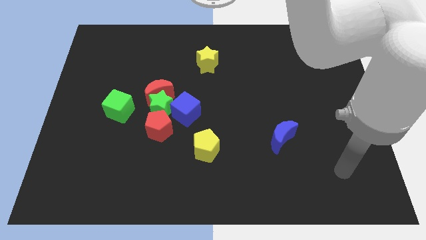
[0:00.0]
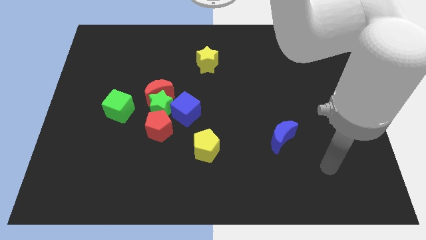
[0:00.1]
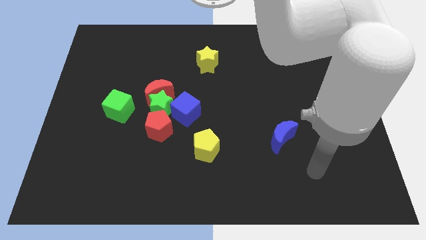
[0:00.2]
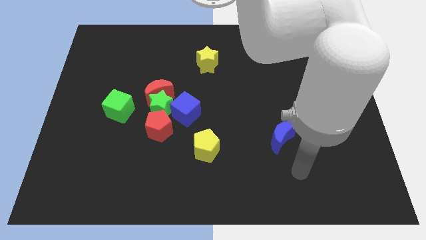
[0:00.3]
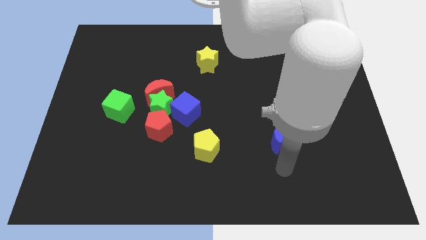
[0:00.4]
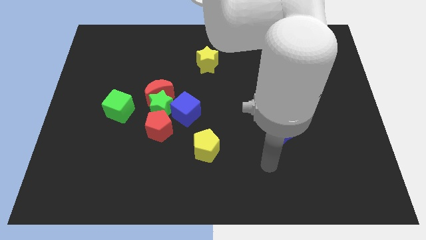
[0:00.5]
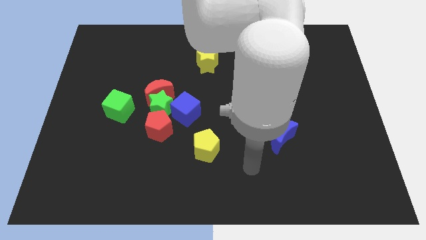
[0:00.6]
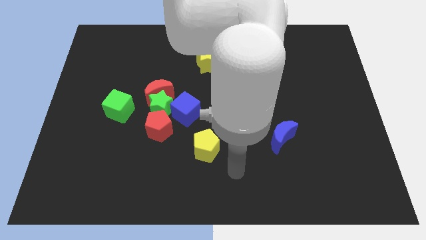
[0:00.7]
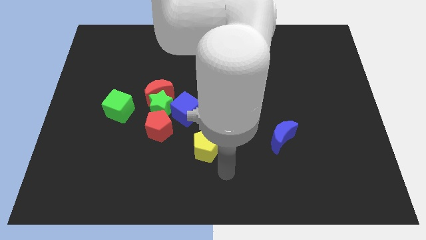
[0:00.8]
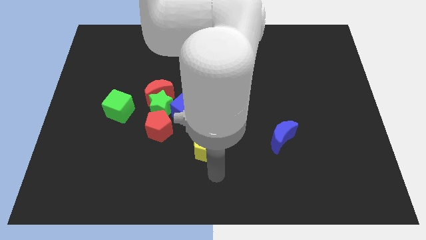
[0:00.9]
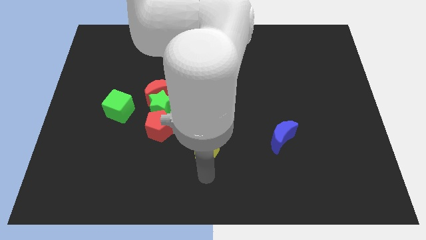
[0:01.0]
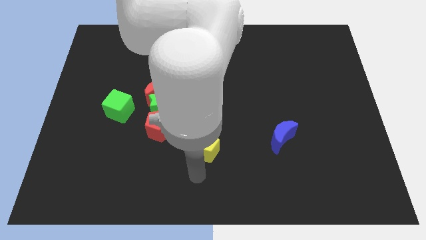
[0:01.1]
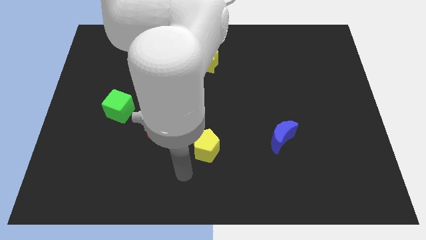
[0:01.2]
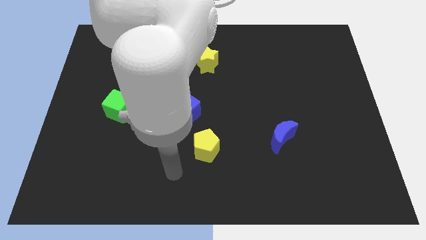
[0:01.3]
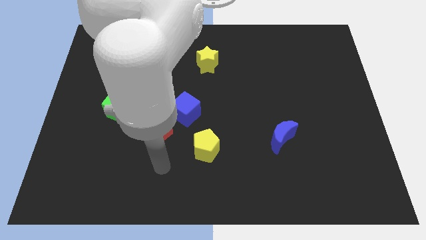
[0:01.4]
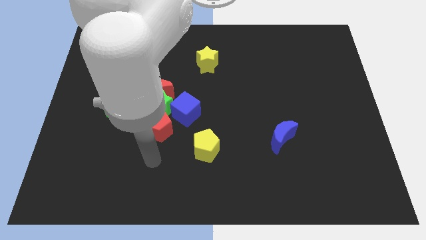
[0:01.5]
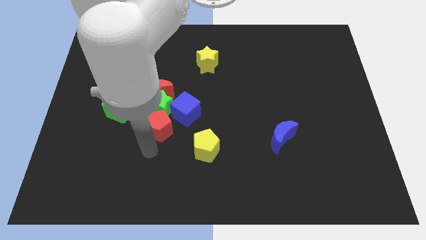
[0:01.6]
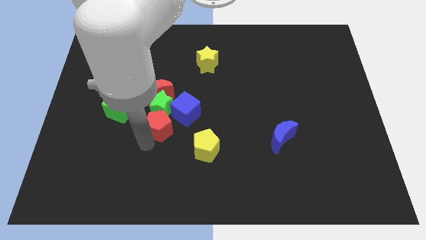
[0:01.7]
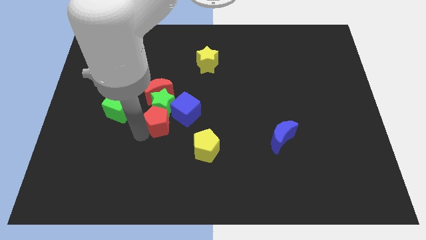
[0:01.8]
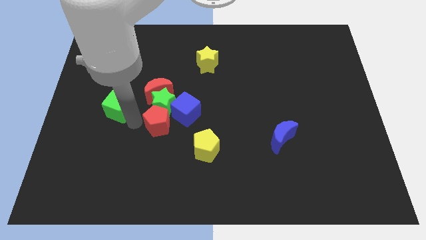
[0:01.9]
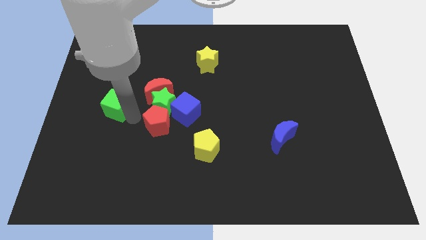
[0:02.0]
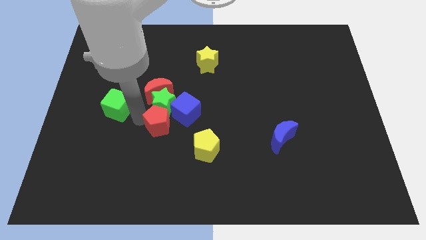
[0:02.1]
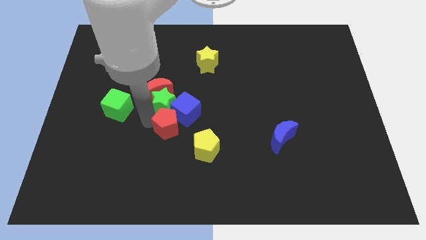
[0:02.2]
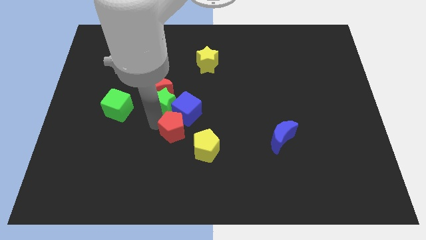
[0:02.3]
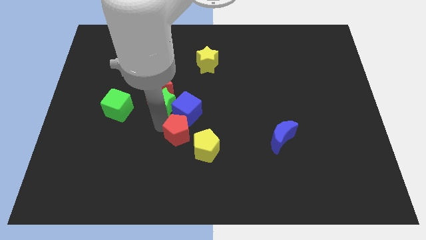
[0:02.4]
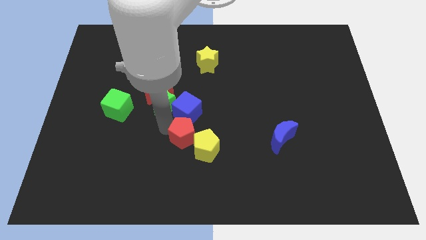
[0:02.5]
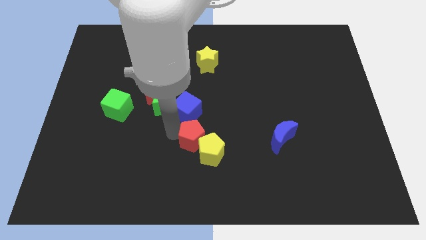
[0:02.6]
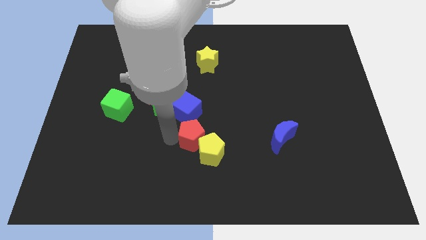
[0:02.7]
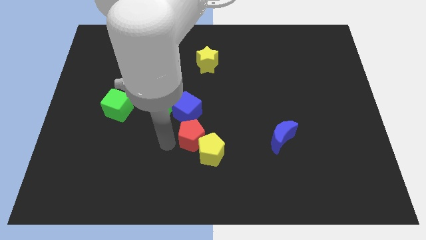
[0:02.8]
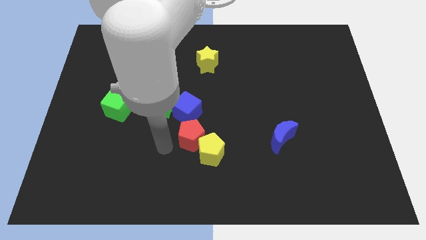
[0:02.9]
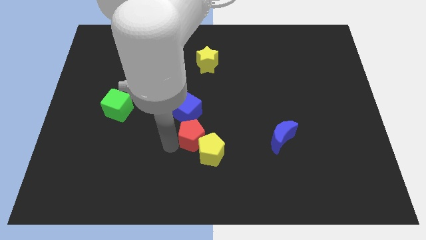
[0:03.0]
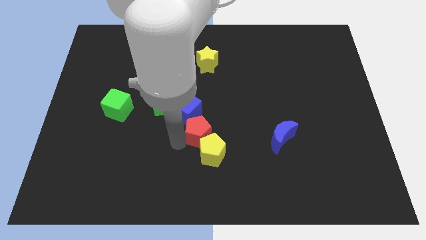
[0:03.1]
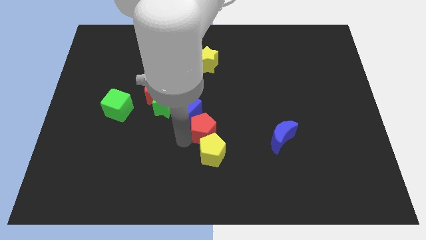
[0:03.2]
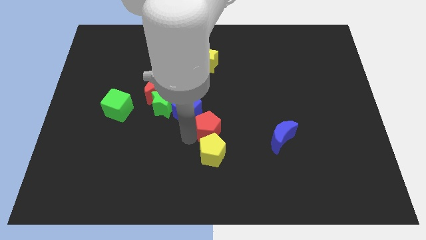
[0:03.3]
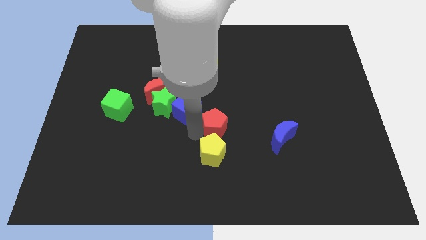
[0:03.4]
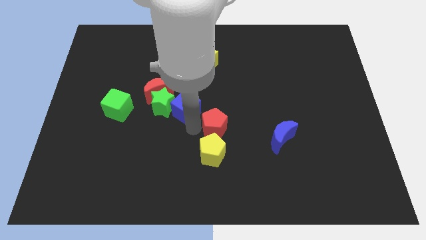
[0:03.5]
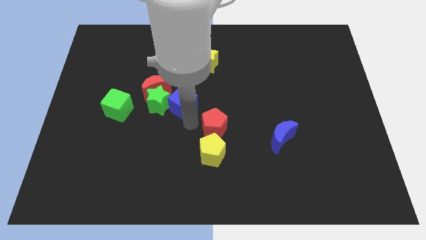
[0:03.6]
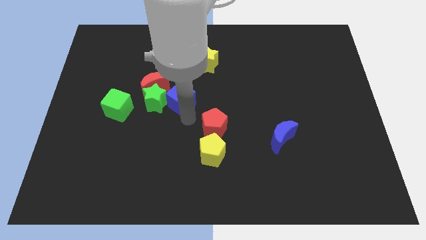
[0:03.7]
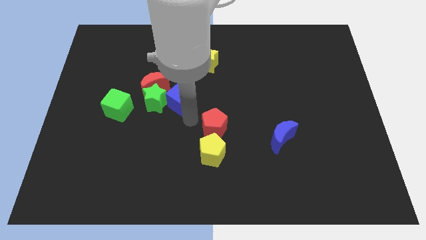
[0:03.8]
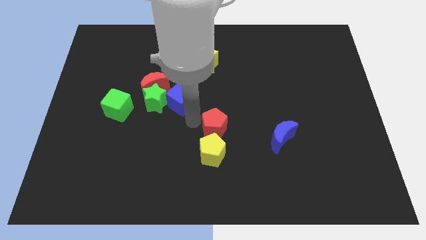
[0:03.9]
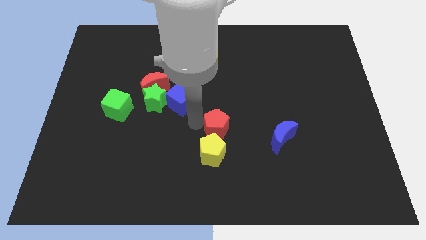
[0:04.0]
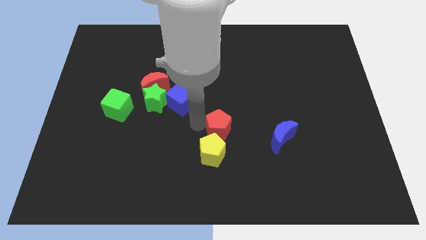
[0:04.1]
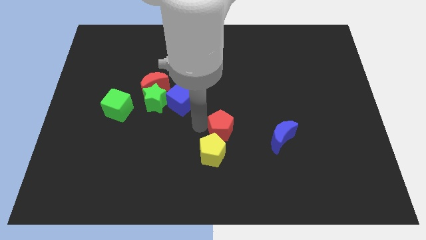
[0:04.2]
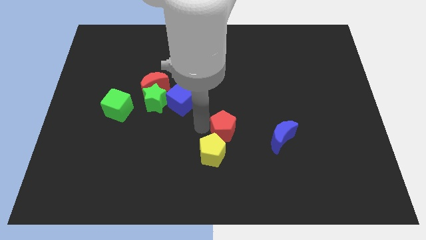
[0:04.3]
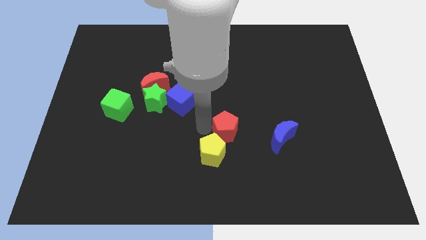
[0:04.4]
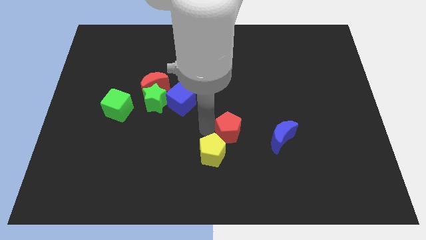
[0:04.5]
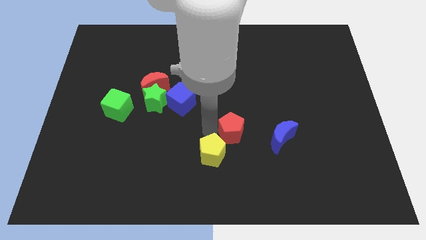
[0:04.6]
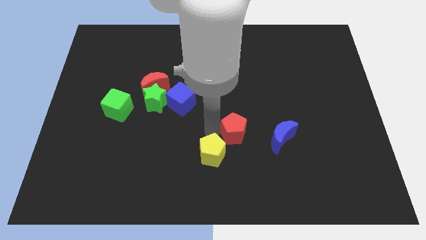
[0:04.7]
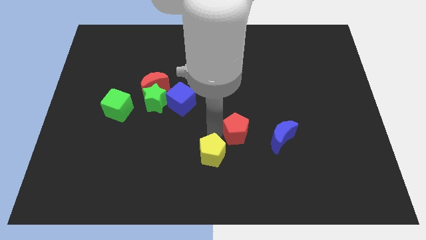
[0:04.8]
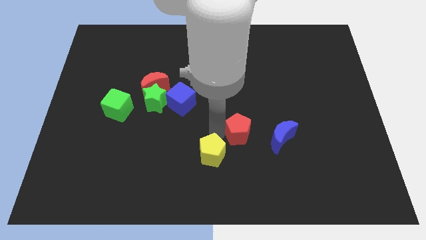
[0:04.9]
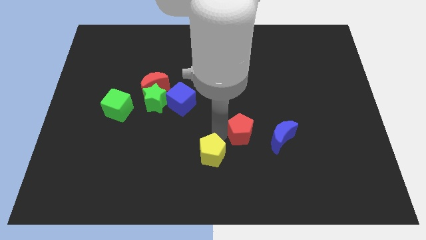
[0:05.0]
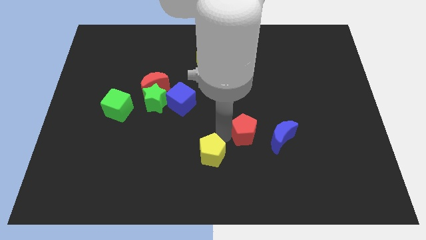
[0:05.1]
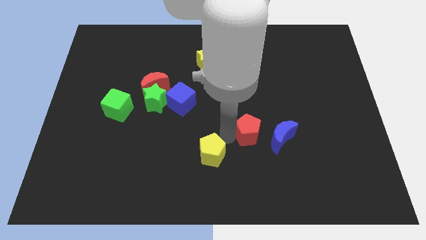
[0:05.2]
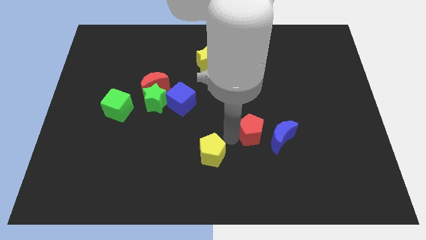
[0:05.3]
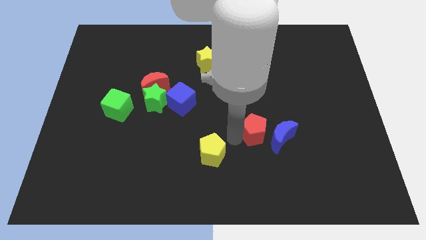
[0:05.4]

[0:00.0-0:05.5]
put the red pentagon next to the blue moon

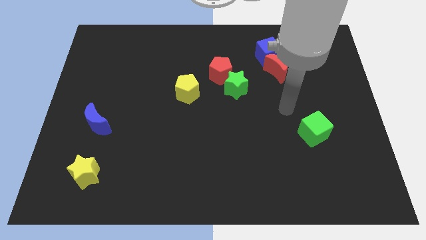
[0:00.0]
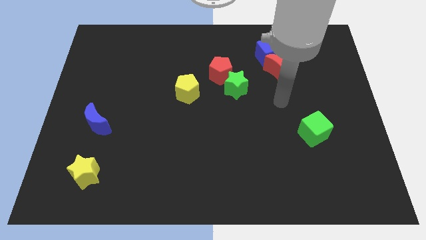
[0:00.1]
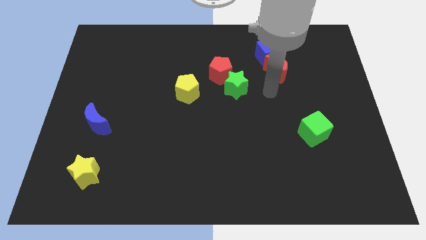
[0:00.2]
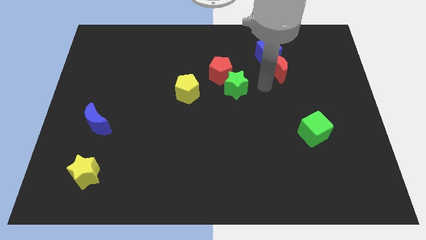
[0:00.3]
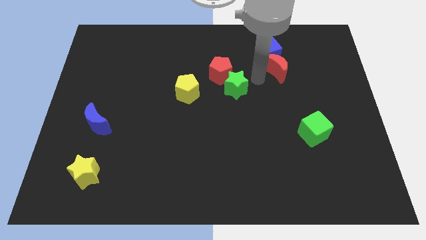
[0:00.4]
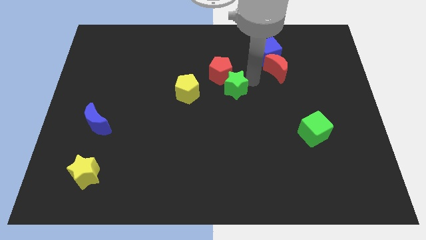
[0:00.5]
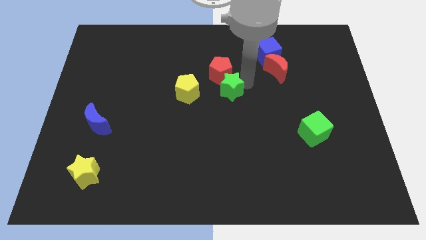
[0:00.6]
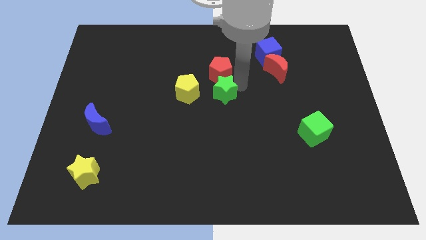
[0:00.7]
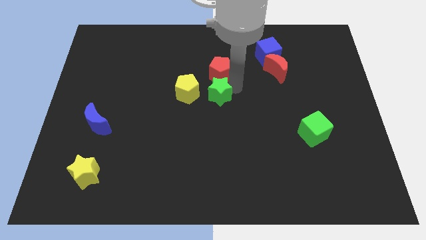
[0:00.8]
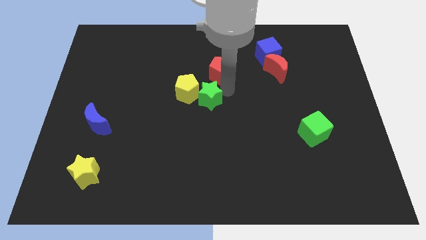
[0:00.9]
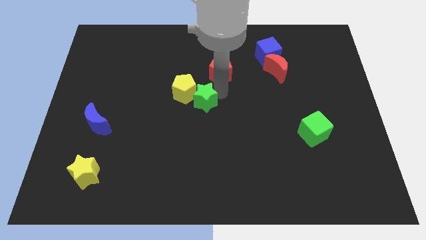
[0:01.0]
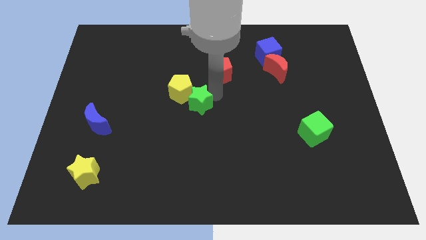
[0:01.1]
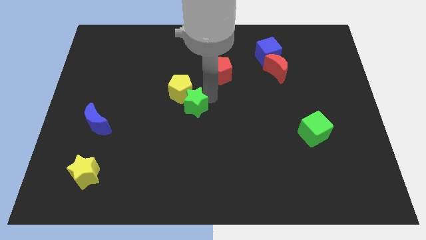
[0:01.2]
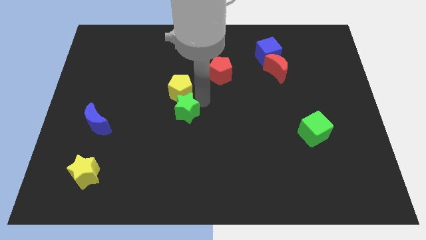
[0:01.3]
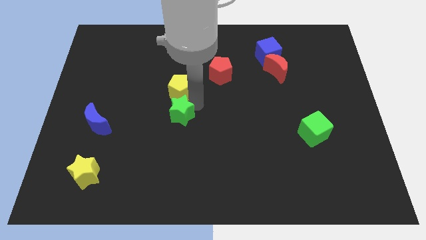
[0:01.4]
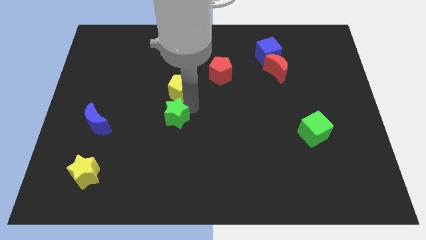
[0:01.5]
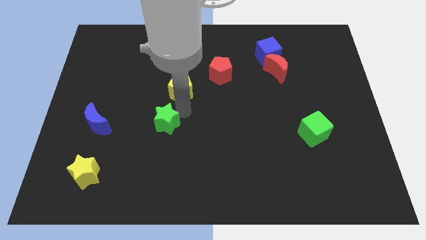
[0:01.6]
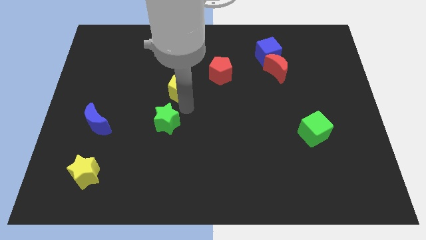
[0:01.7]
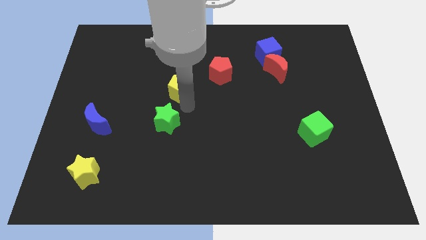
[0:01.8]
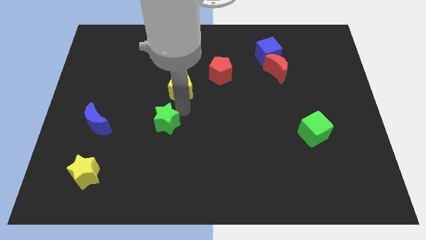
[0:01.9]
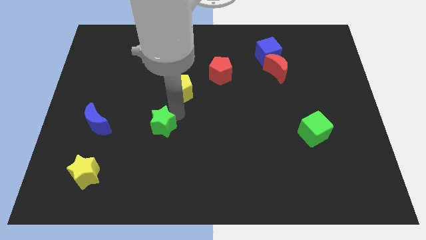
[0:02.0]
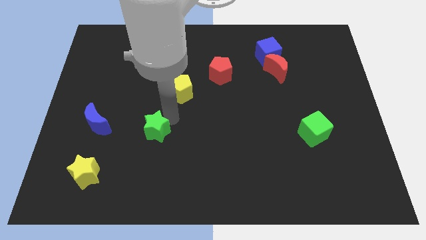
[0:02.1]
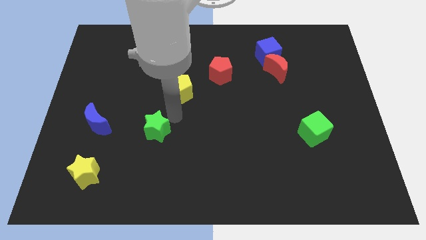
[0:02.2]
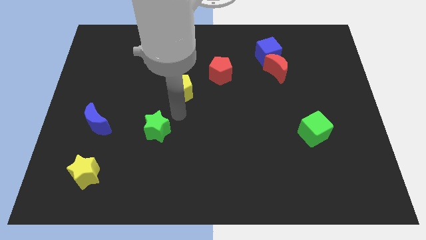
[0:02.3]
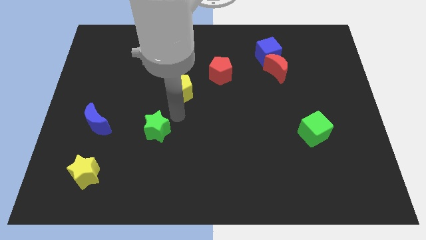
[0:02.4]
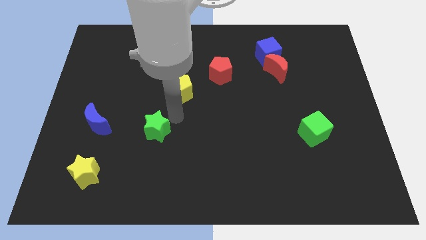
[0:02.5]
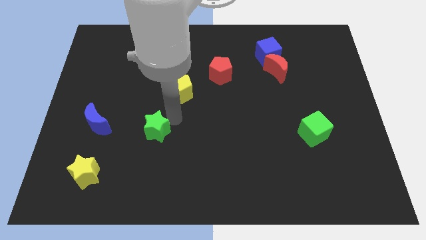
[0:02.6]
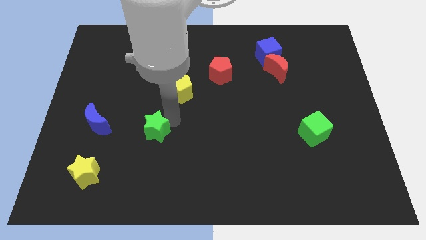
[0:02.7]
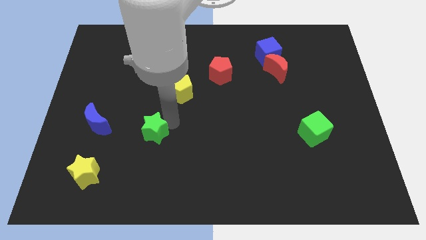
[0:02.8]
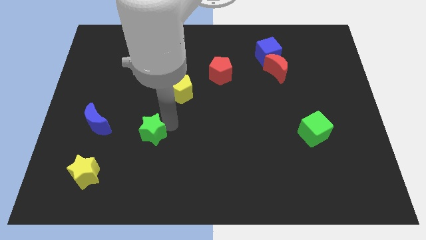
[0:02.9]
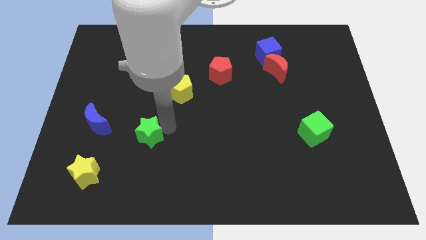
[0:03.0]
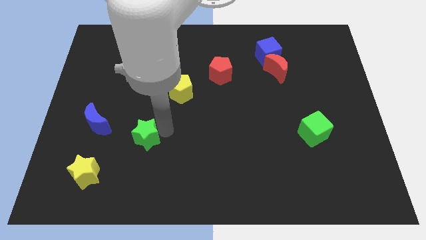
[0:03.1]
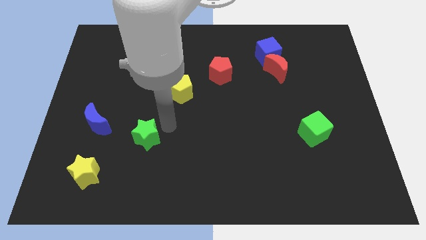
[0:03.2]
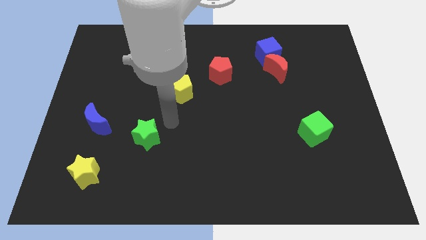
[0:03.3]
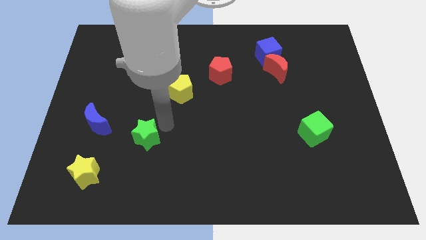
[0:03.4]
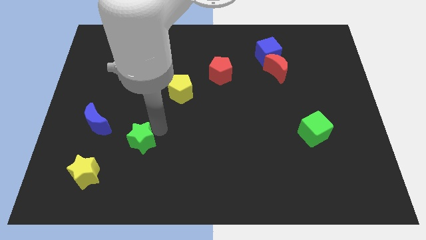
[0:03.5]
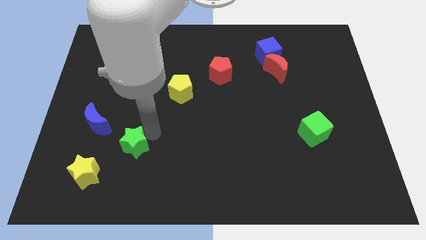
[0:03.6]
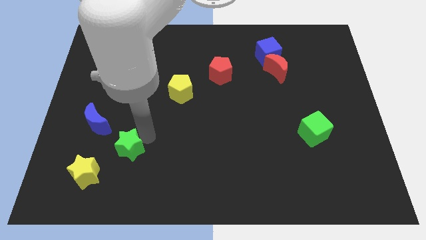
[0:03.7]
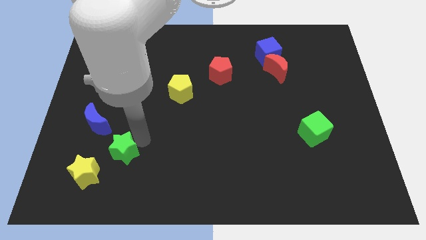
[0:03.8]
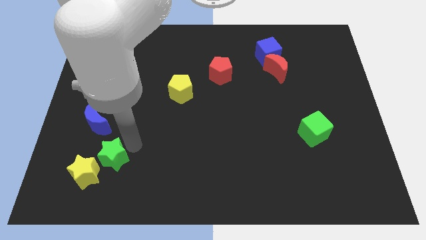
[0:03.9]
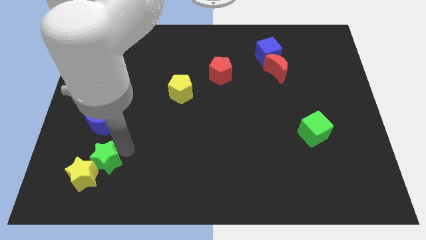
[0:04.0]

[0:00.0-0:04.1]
put the green star to the yellow star
